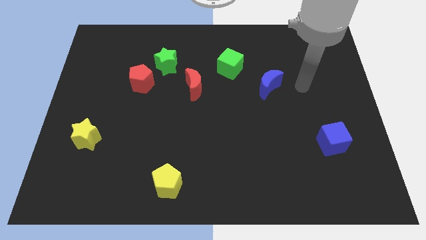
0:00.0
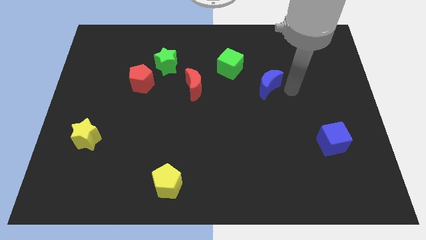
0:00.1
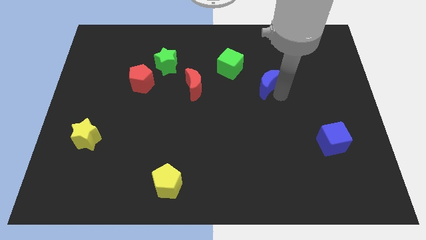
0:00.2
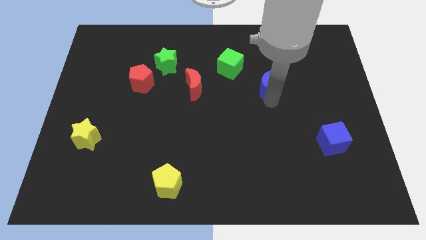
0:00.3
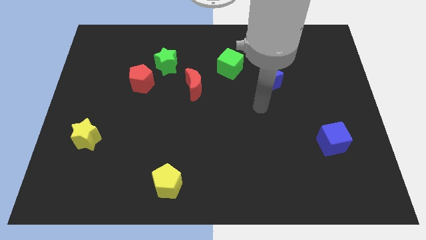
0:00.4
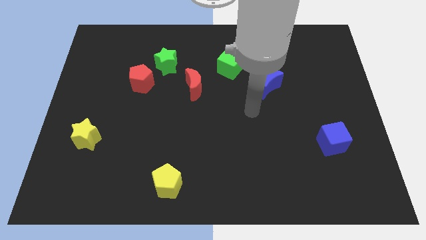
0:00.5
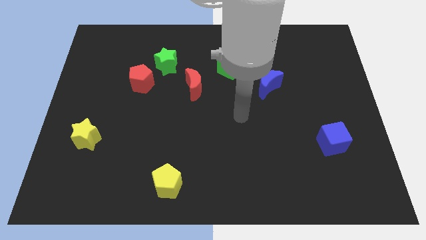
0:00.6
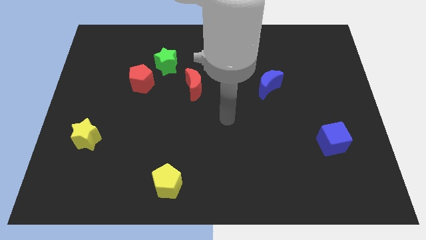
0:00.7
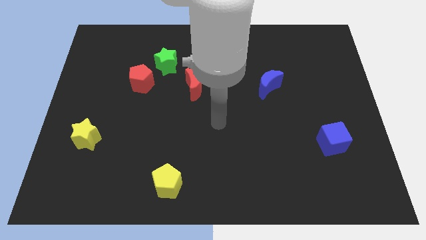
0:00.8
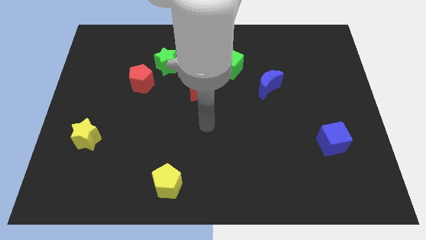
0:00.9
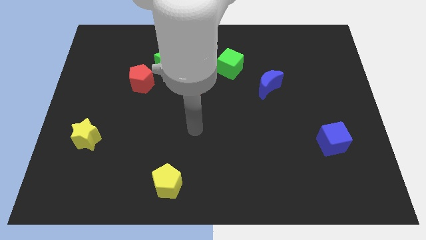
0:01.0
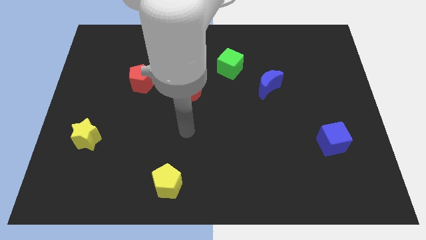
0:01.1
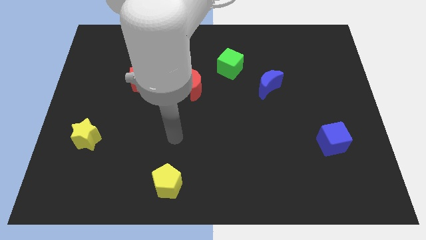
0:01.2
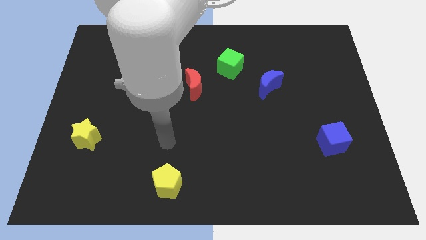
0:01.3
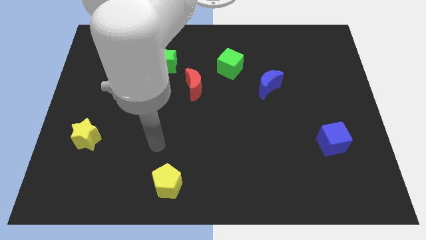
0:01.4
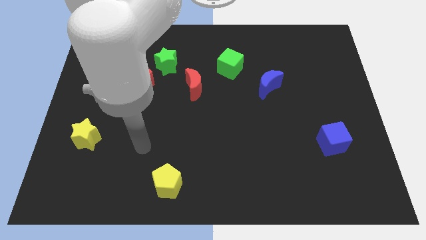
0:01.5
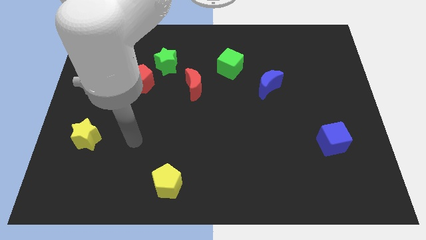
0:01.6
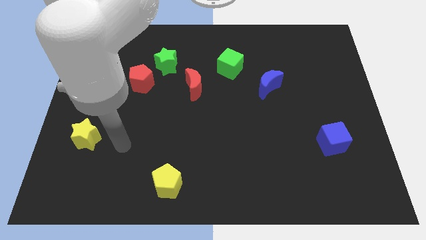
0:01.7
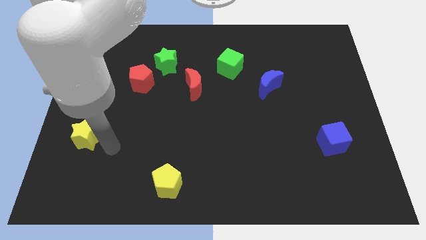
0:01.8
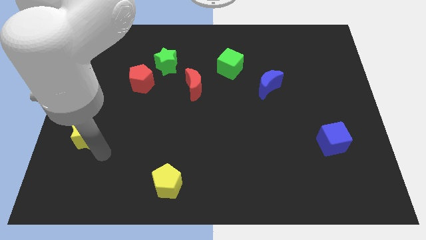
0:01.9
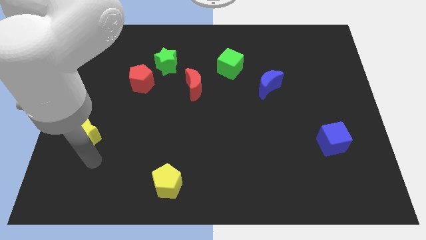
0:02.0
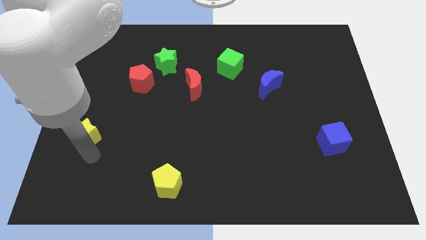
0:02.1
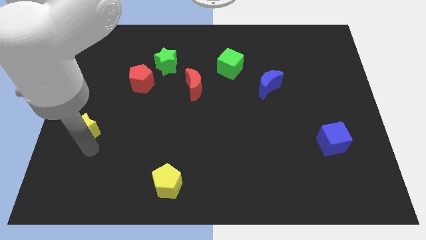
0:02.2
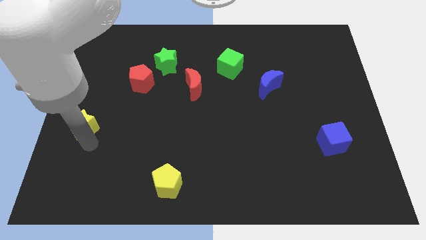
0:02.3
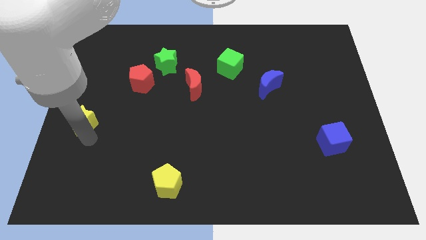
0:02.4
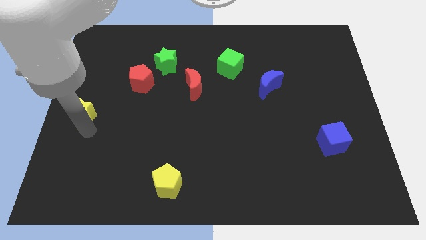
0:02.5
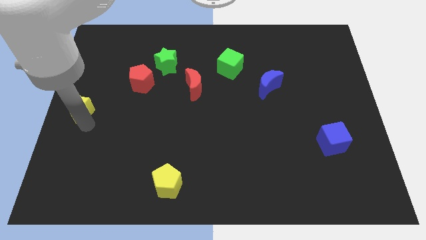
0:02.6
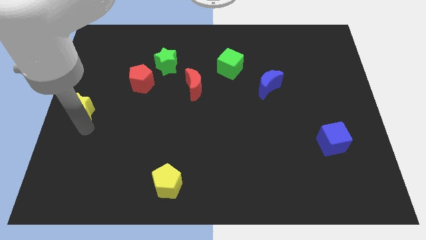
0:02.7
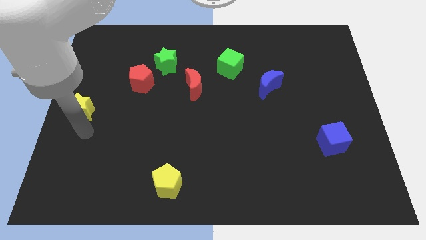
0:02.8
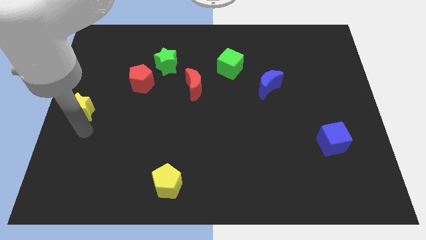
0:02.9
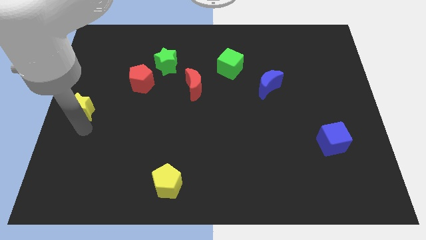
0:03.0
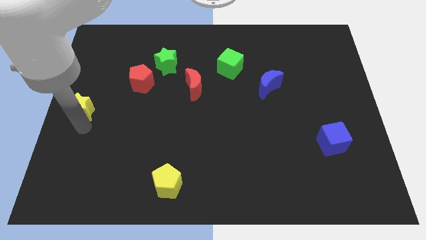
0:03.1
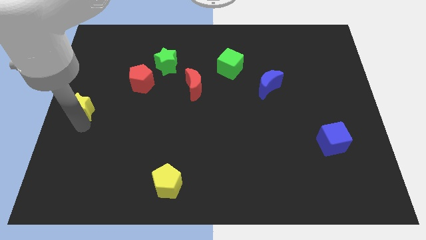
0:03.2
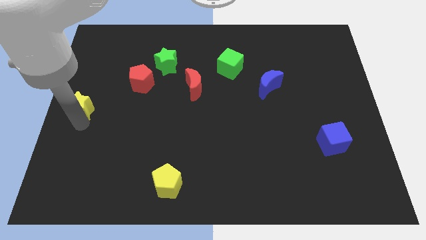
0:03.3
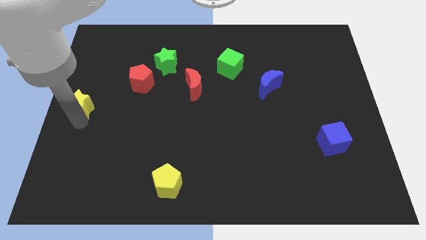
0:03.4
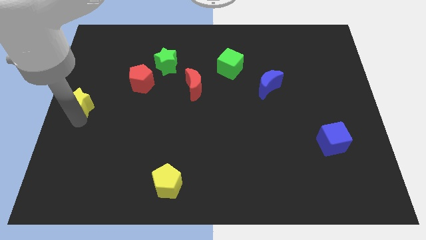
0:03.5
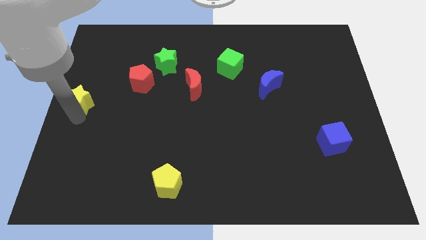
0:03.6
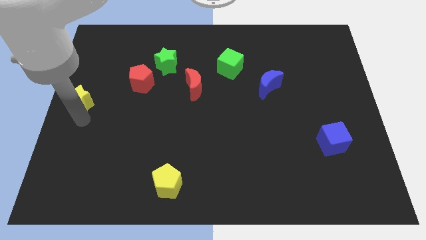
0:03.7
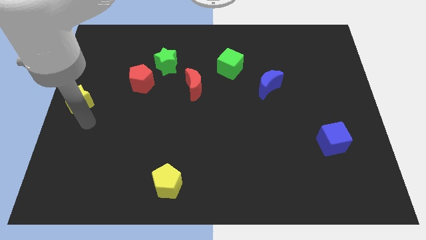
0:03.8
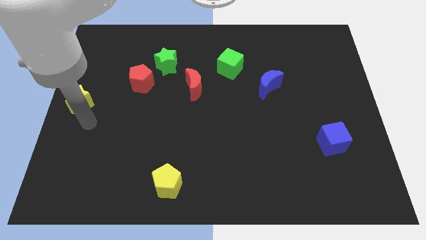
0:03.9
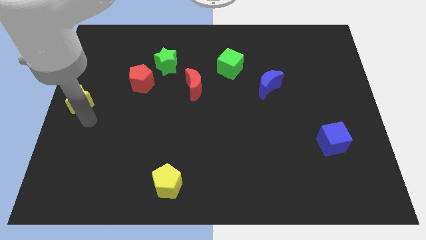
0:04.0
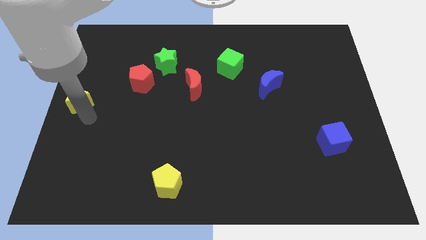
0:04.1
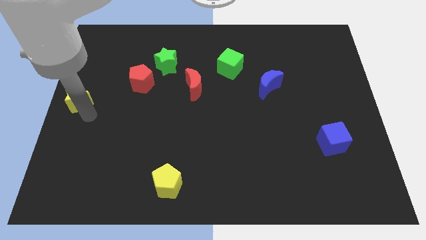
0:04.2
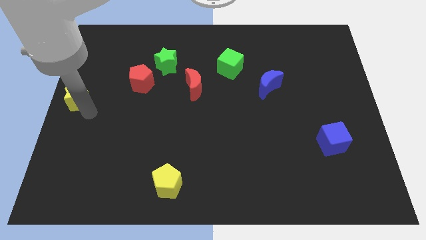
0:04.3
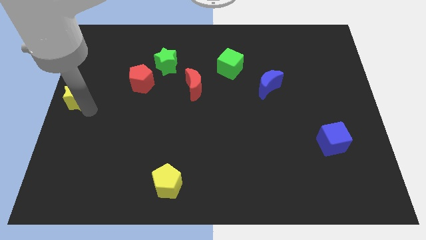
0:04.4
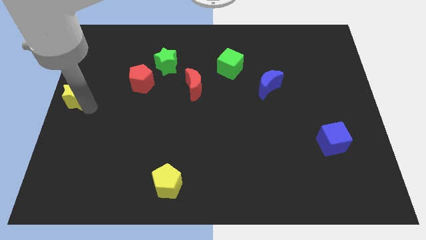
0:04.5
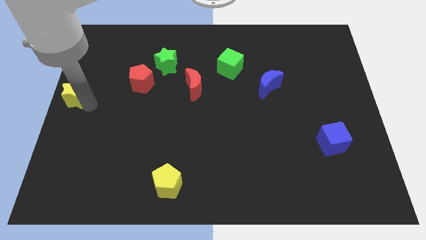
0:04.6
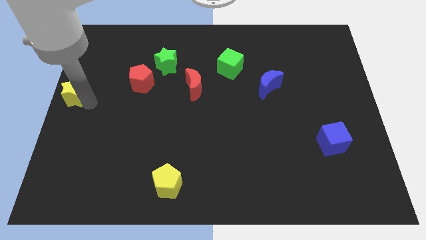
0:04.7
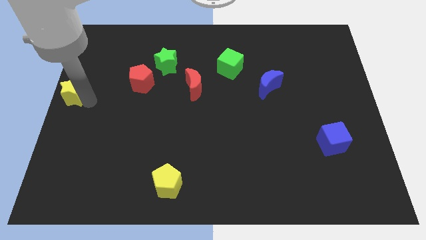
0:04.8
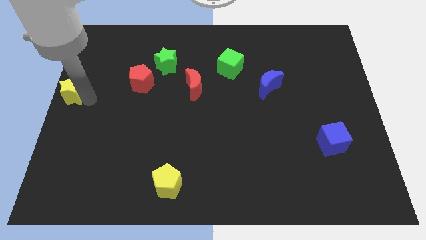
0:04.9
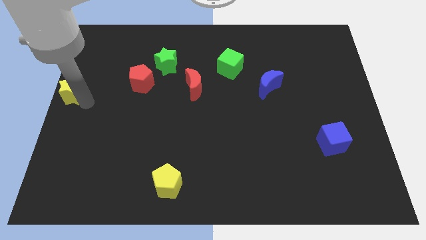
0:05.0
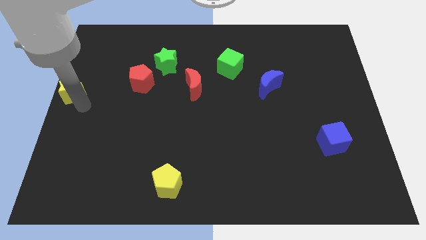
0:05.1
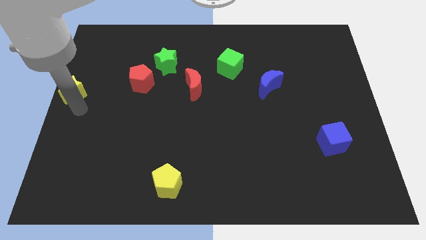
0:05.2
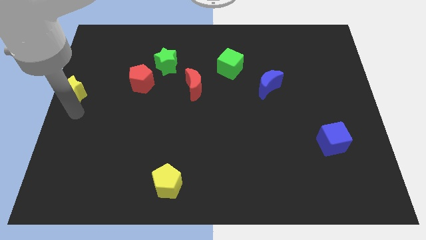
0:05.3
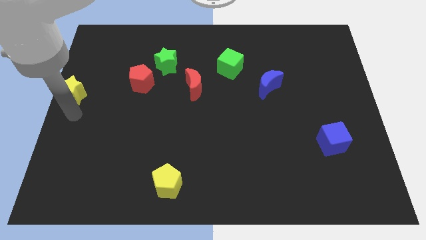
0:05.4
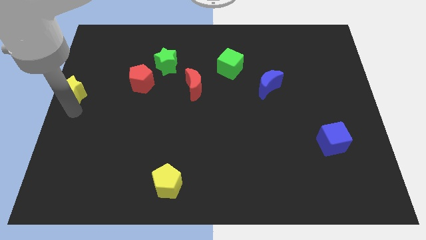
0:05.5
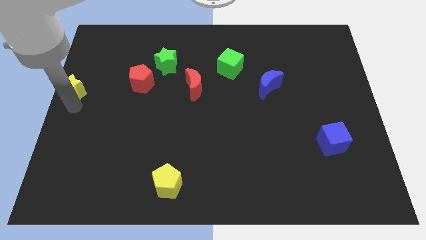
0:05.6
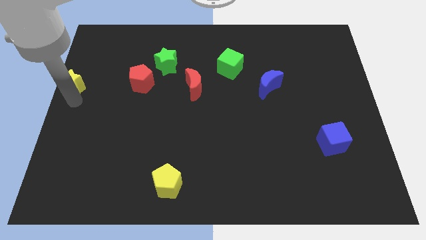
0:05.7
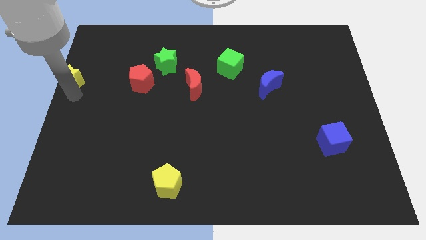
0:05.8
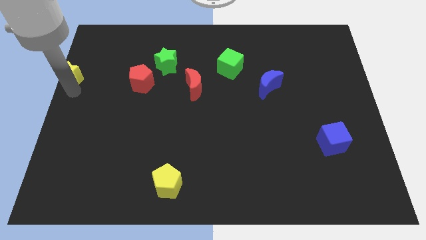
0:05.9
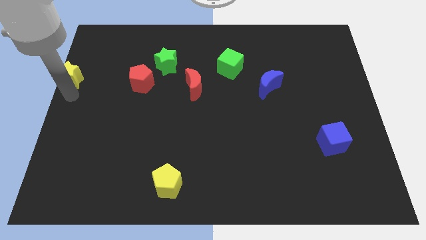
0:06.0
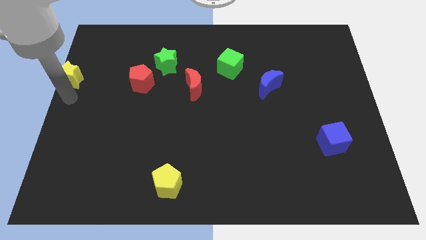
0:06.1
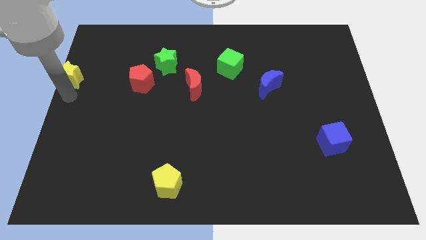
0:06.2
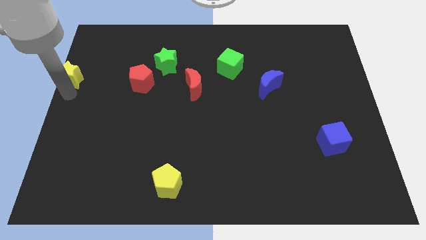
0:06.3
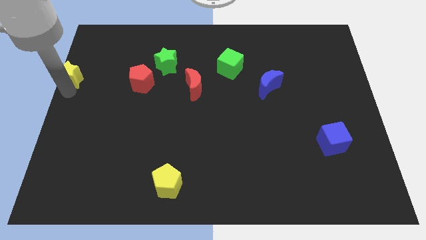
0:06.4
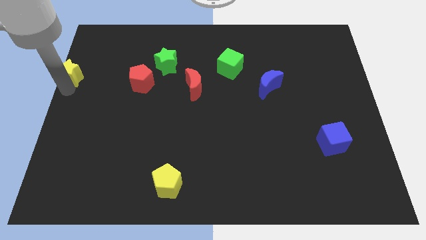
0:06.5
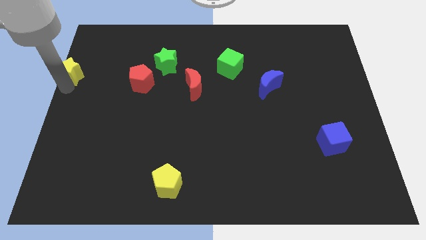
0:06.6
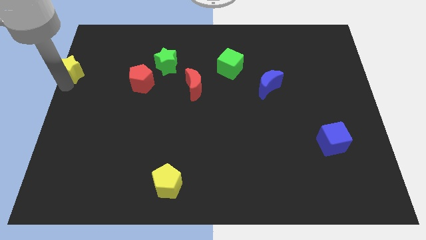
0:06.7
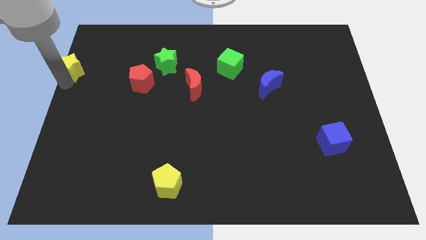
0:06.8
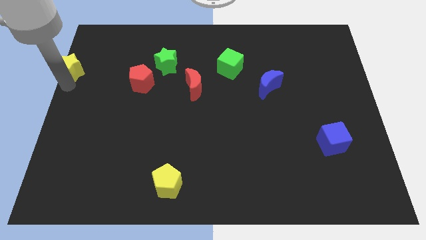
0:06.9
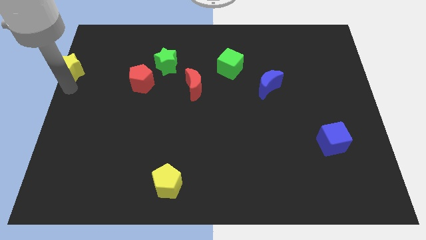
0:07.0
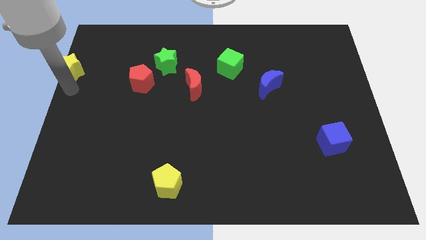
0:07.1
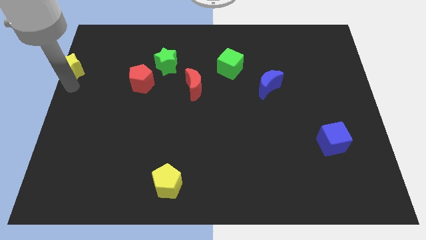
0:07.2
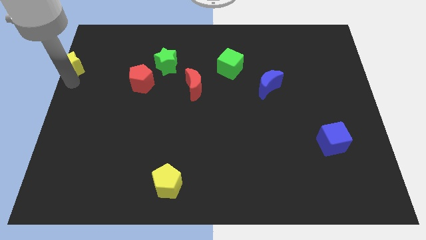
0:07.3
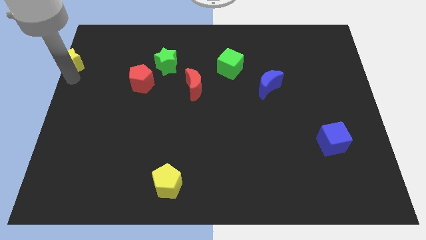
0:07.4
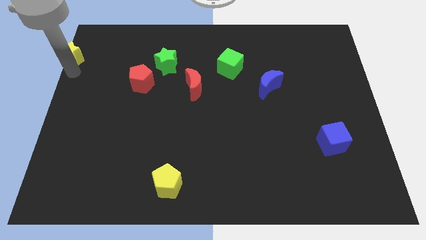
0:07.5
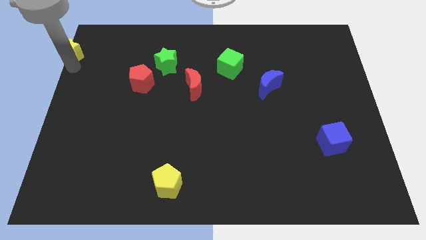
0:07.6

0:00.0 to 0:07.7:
put the yellow star to the upper left corner
